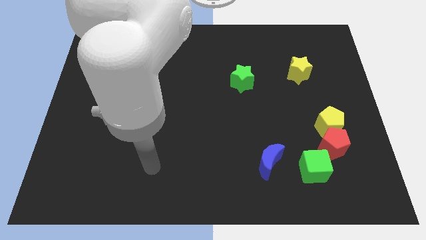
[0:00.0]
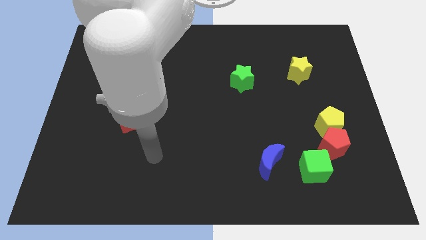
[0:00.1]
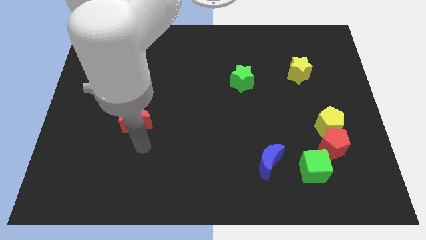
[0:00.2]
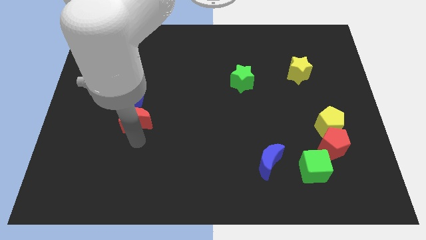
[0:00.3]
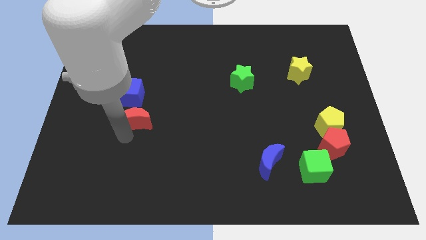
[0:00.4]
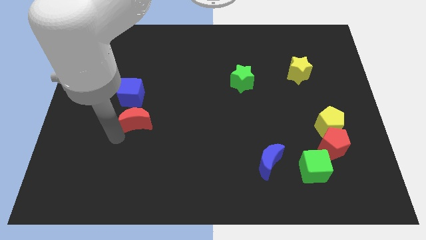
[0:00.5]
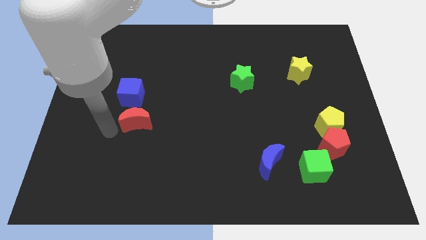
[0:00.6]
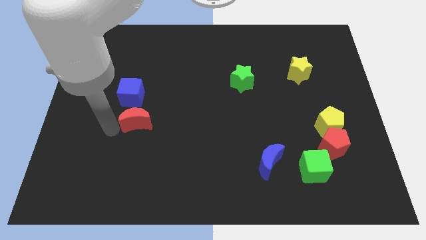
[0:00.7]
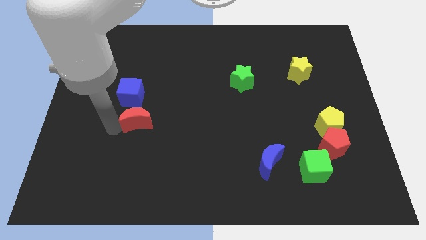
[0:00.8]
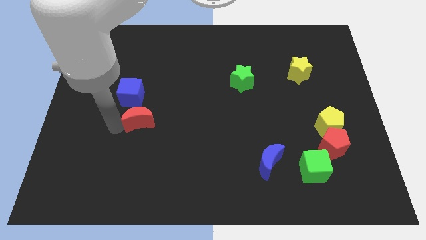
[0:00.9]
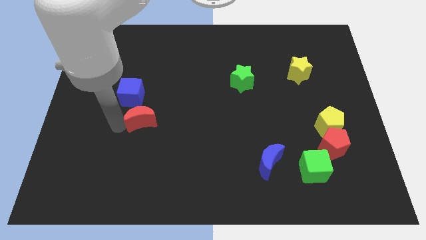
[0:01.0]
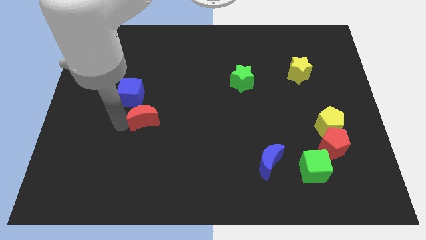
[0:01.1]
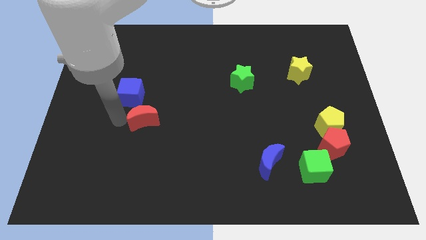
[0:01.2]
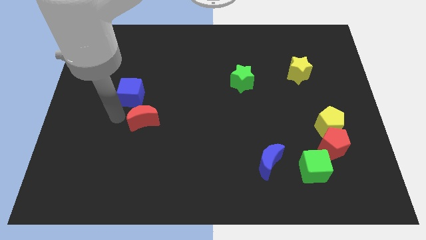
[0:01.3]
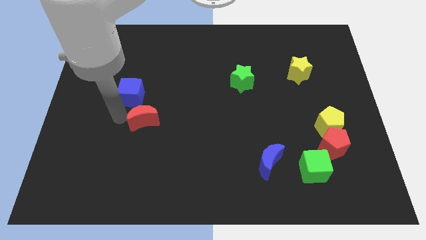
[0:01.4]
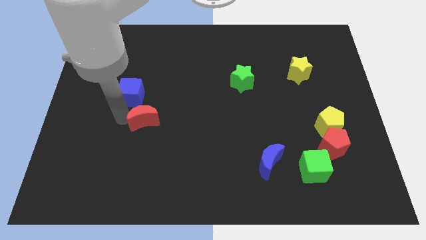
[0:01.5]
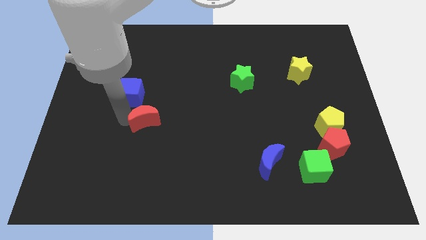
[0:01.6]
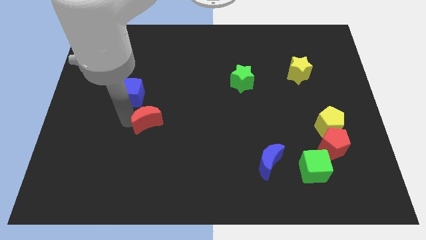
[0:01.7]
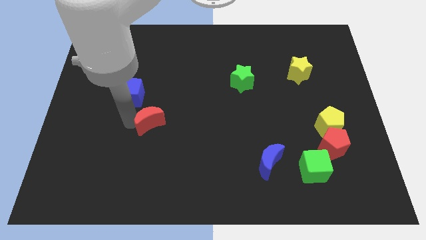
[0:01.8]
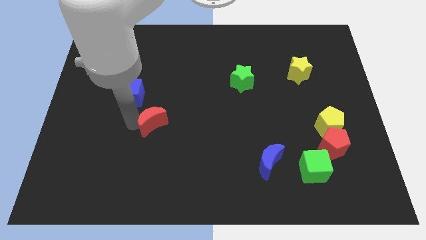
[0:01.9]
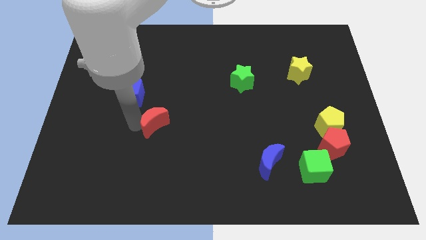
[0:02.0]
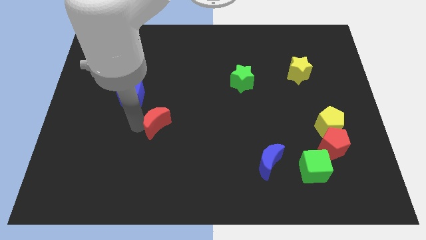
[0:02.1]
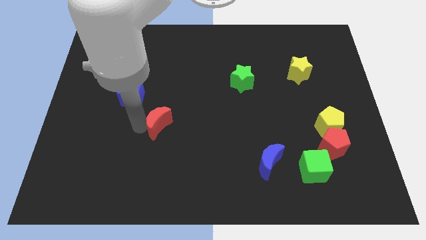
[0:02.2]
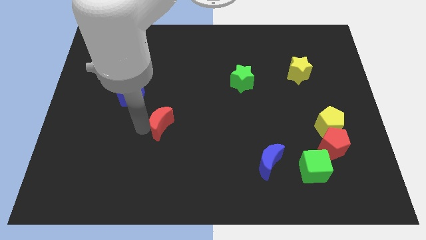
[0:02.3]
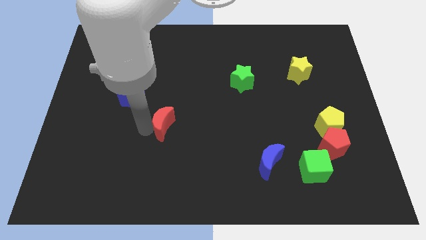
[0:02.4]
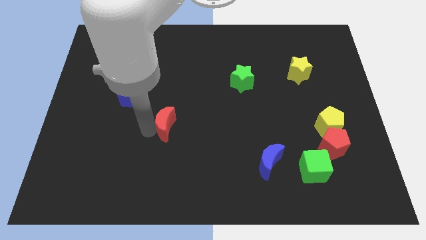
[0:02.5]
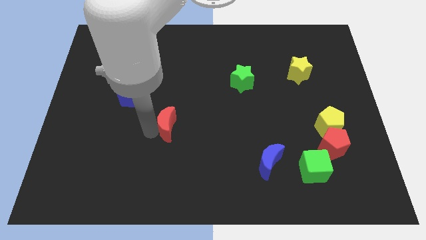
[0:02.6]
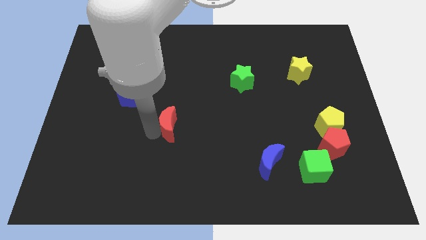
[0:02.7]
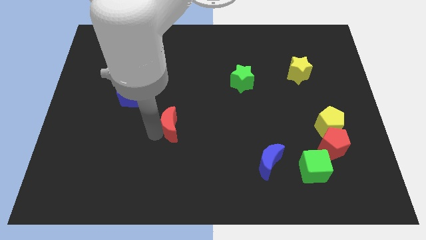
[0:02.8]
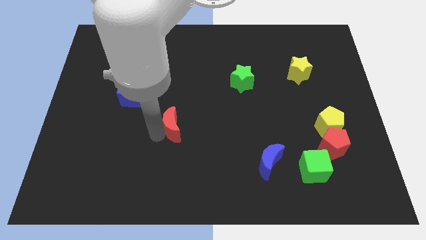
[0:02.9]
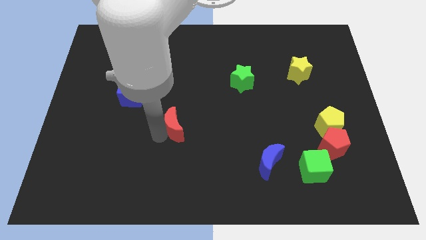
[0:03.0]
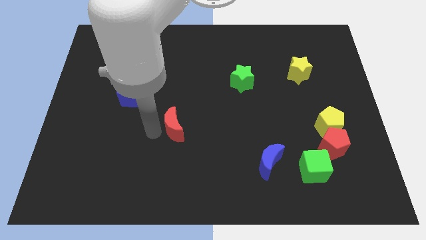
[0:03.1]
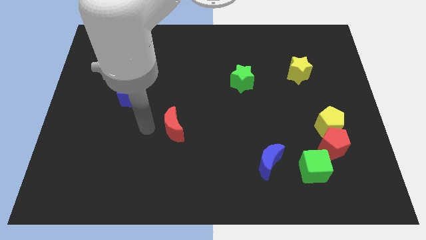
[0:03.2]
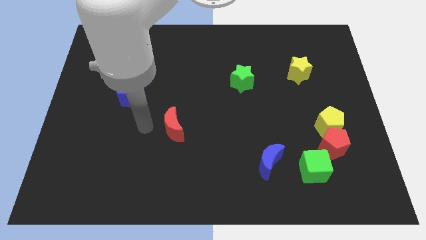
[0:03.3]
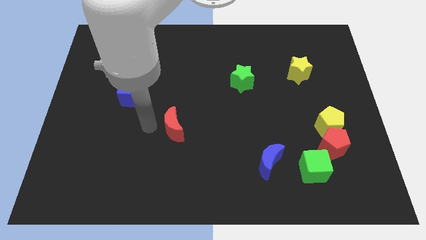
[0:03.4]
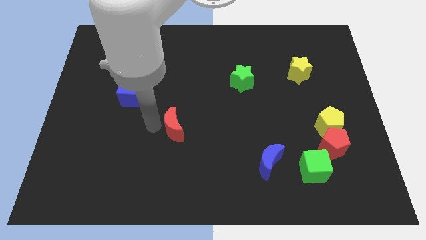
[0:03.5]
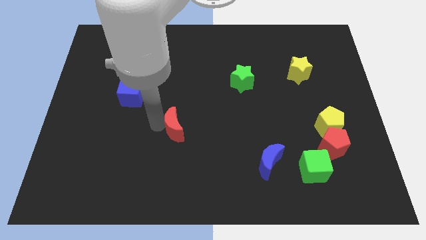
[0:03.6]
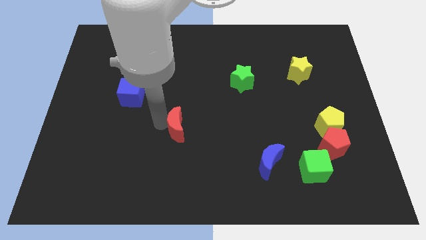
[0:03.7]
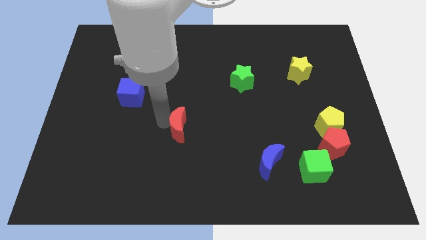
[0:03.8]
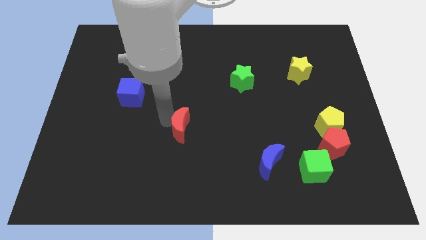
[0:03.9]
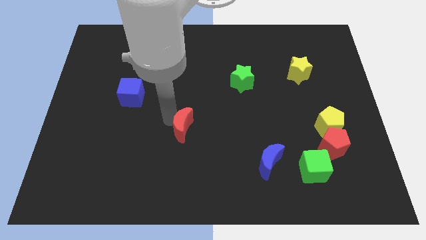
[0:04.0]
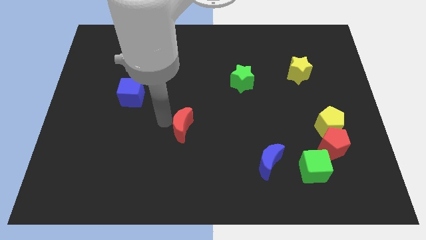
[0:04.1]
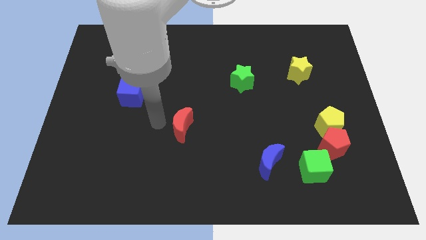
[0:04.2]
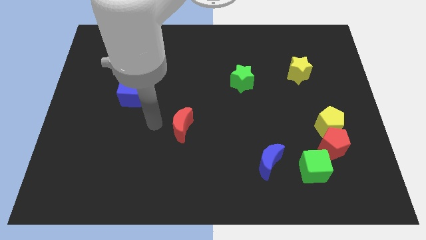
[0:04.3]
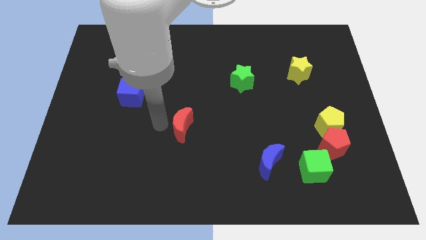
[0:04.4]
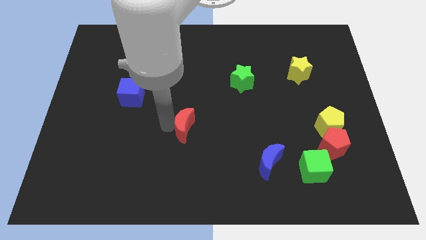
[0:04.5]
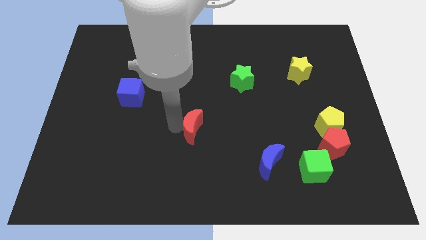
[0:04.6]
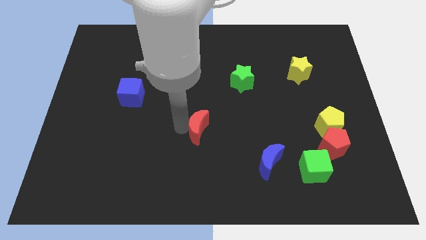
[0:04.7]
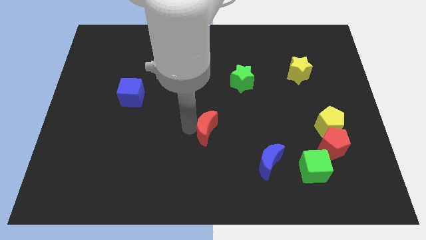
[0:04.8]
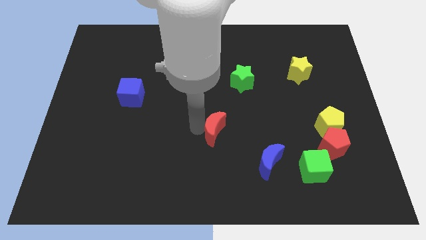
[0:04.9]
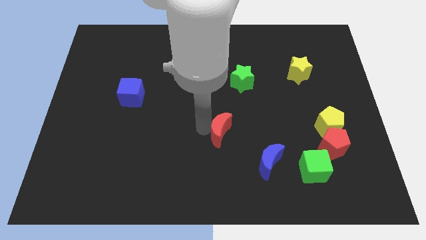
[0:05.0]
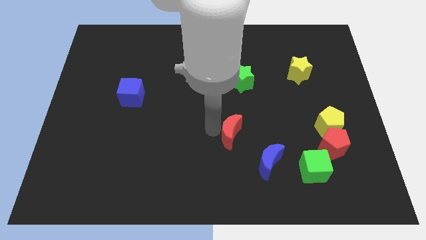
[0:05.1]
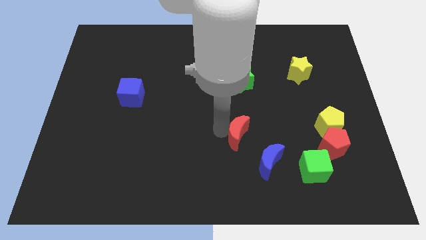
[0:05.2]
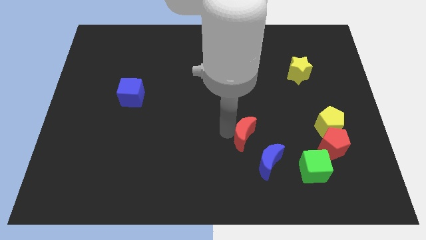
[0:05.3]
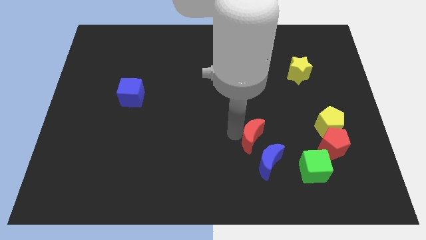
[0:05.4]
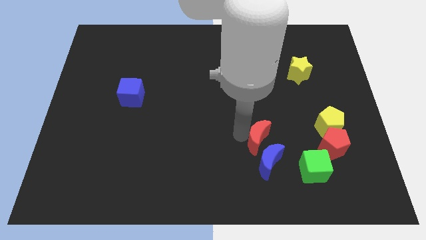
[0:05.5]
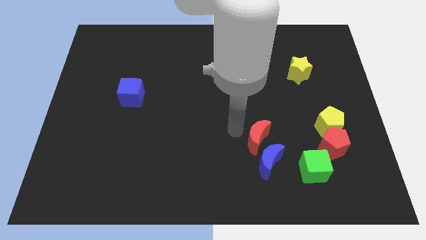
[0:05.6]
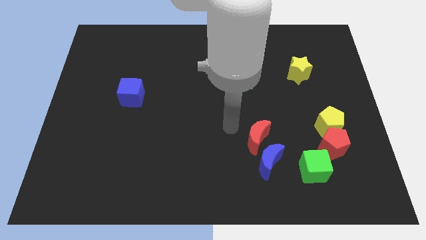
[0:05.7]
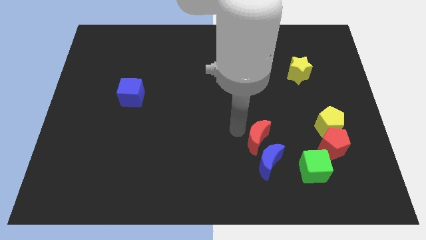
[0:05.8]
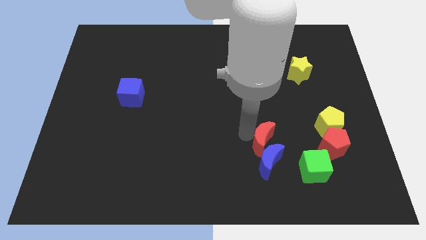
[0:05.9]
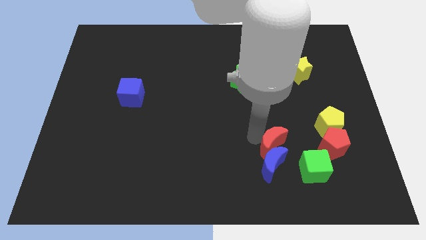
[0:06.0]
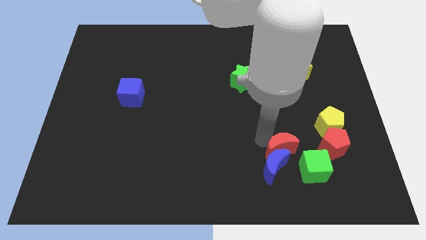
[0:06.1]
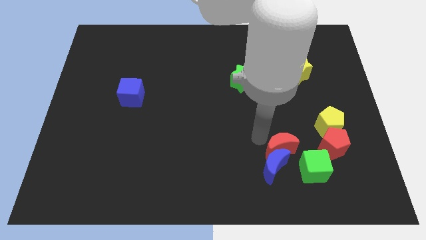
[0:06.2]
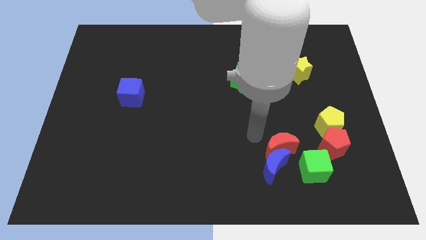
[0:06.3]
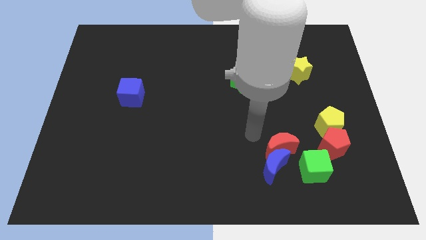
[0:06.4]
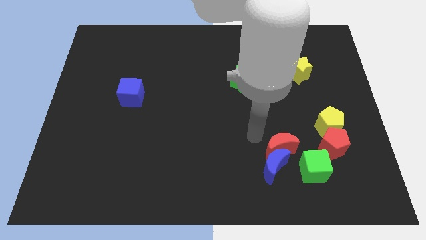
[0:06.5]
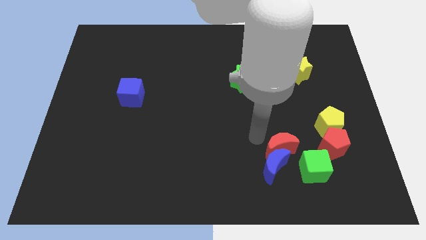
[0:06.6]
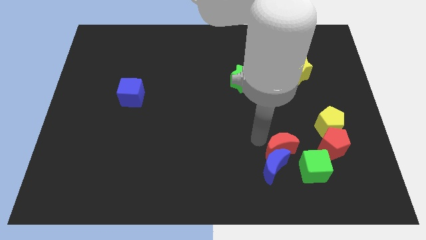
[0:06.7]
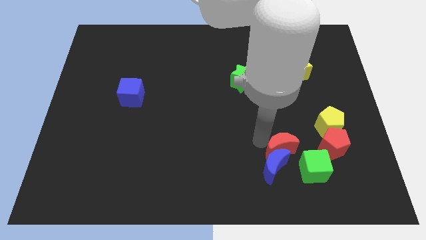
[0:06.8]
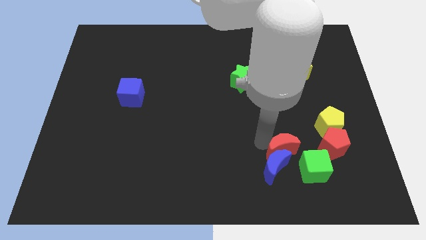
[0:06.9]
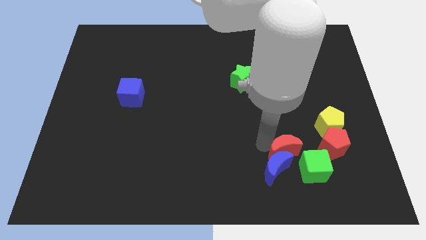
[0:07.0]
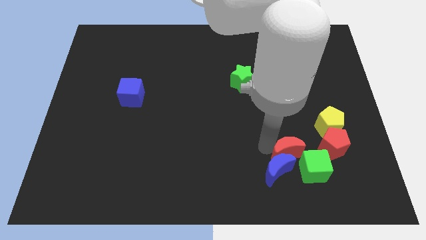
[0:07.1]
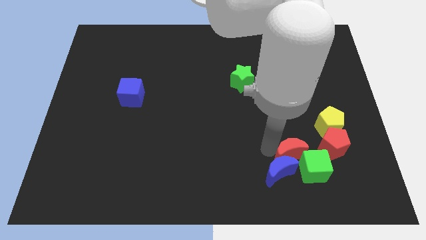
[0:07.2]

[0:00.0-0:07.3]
push the red moon towards the green cube

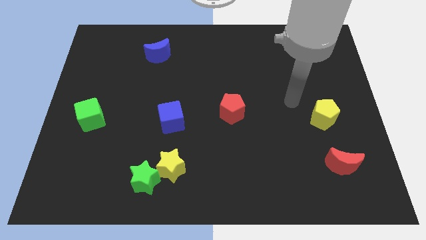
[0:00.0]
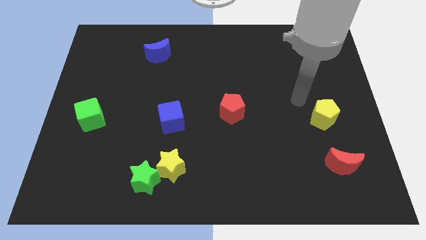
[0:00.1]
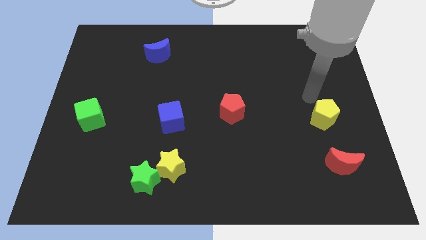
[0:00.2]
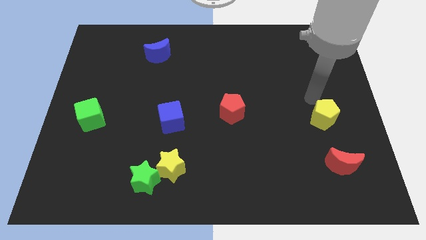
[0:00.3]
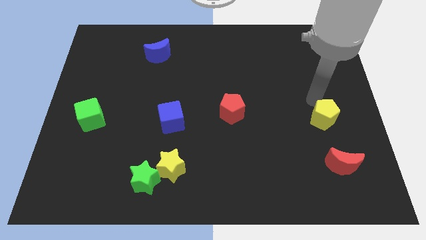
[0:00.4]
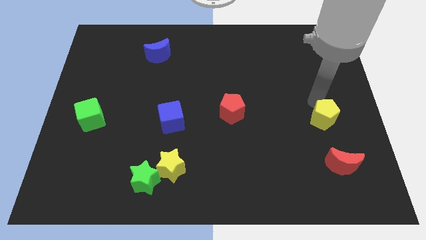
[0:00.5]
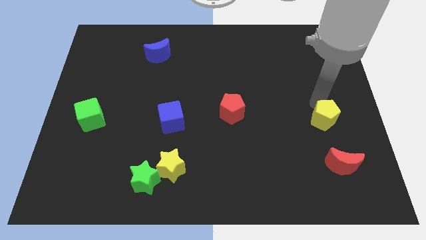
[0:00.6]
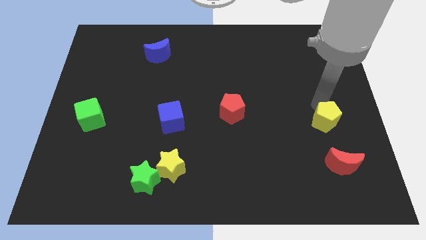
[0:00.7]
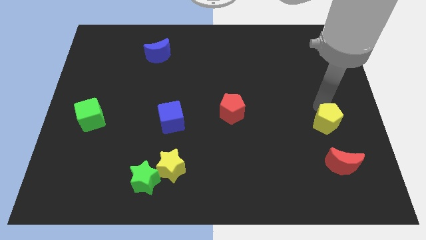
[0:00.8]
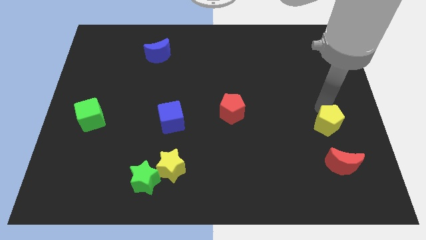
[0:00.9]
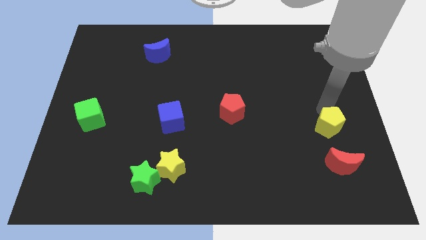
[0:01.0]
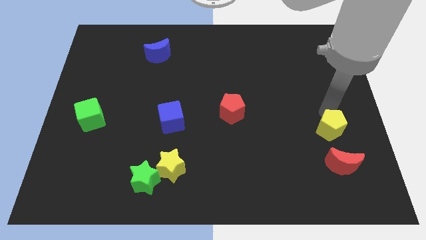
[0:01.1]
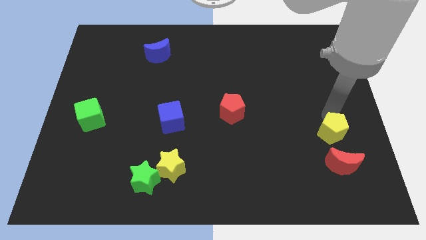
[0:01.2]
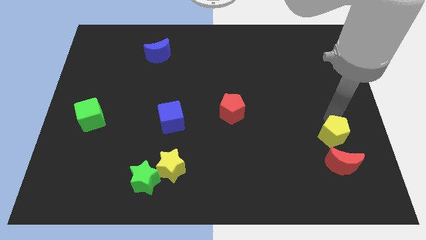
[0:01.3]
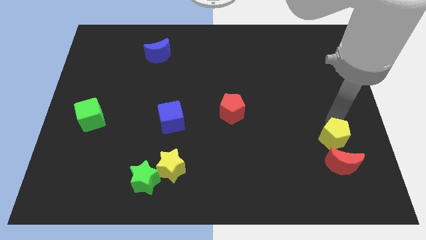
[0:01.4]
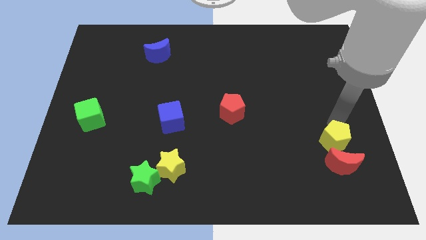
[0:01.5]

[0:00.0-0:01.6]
push the yellow pentagon close to the red moon
